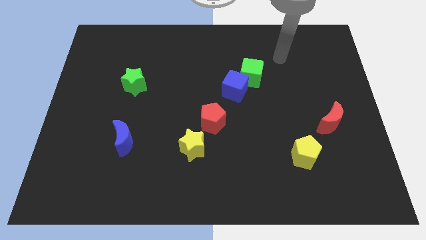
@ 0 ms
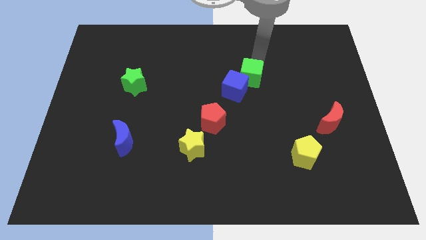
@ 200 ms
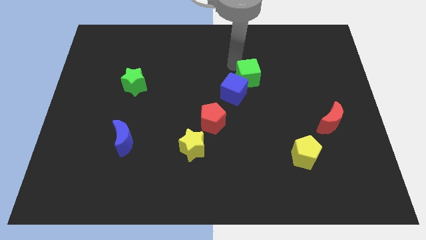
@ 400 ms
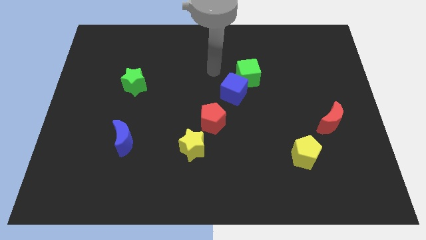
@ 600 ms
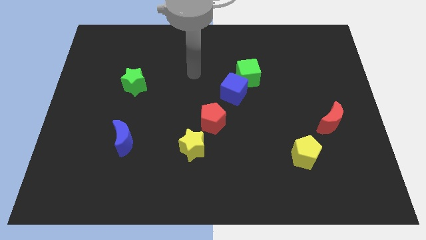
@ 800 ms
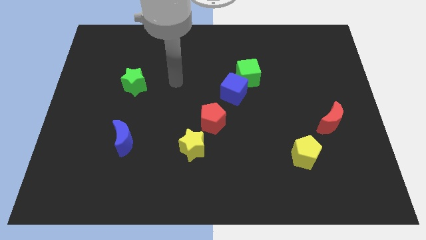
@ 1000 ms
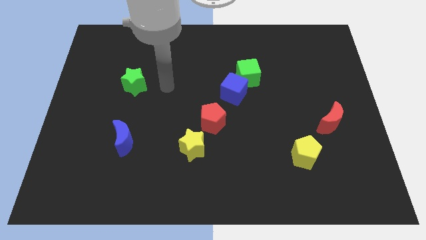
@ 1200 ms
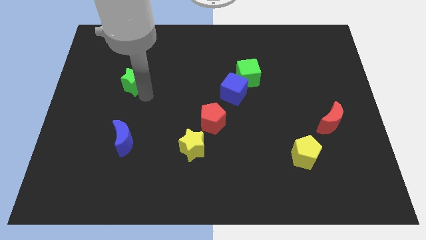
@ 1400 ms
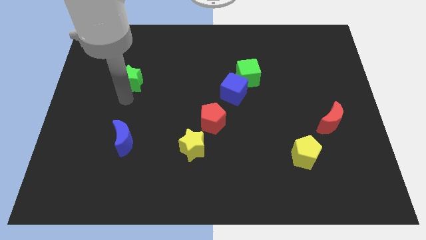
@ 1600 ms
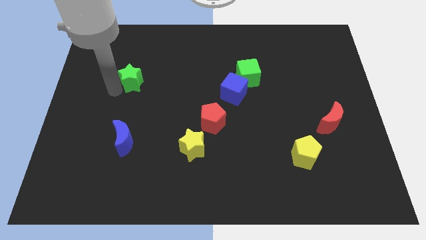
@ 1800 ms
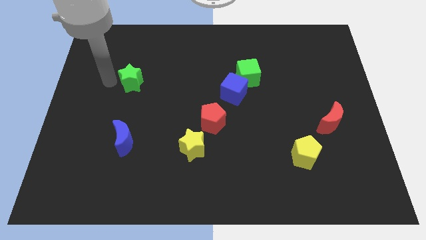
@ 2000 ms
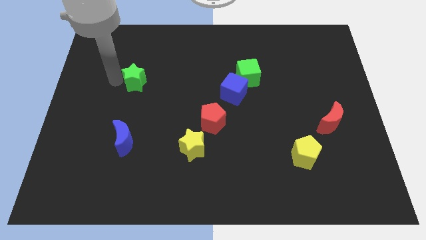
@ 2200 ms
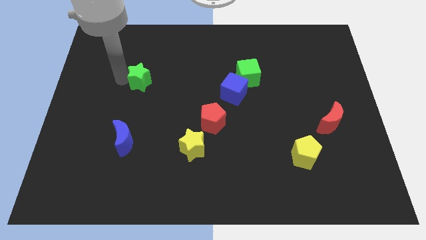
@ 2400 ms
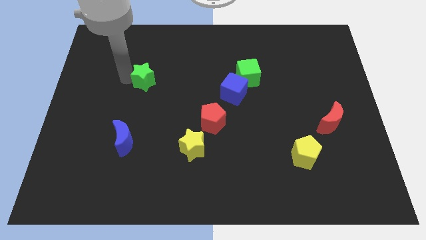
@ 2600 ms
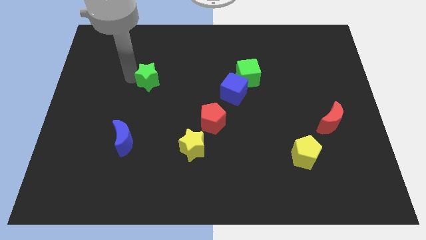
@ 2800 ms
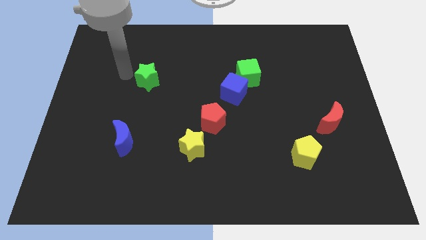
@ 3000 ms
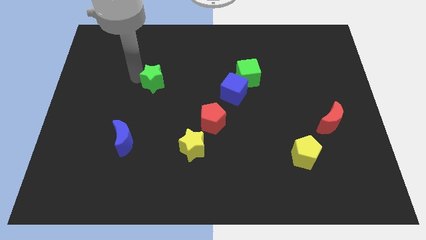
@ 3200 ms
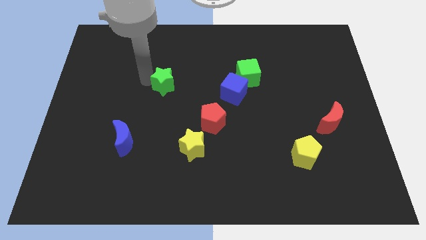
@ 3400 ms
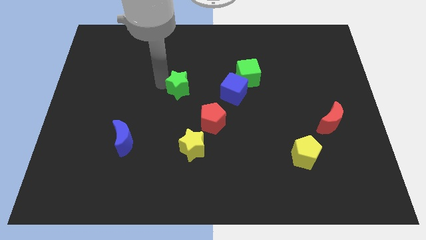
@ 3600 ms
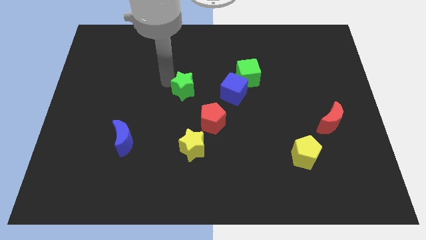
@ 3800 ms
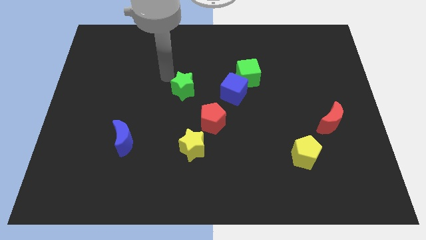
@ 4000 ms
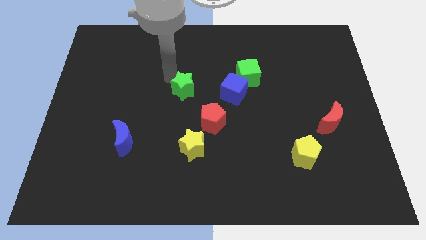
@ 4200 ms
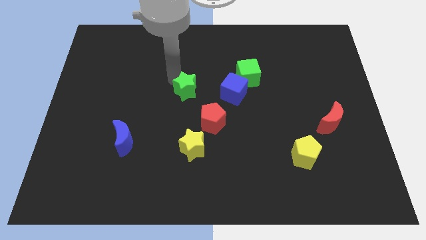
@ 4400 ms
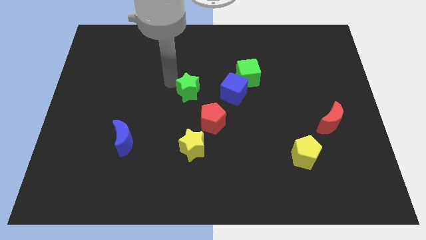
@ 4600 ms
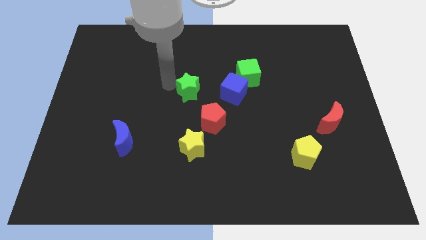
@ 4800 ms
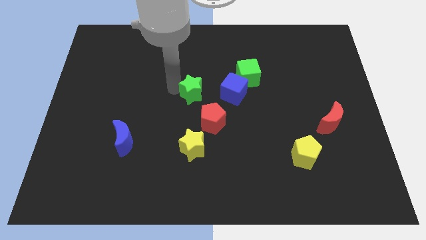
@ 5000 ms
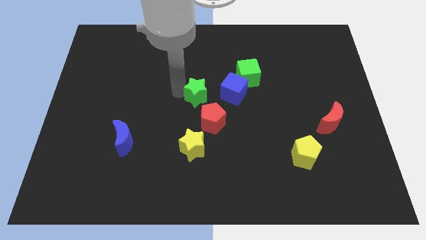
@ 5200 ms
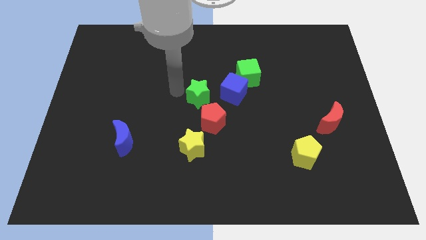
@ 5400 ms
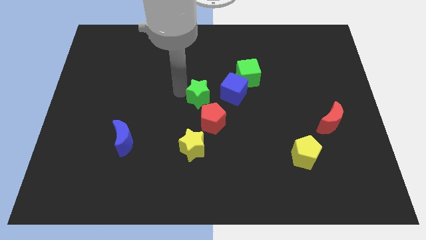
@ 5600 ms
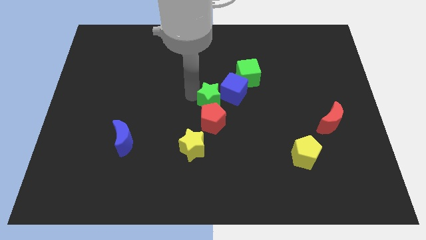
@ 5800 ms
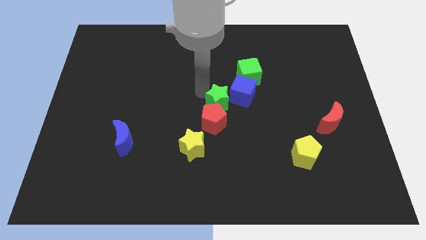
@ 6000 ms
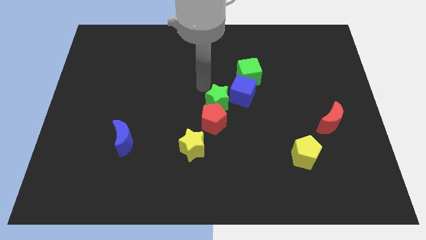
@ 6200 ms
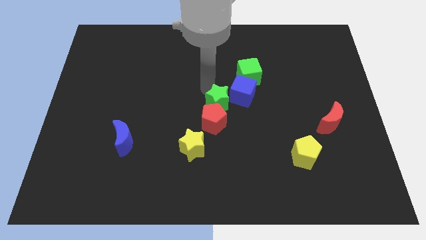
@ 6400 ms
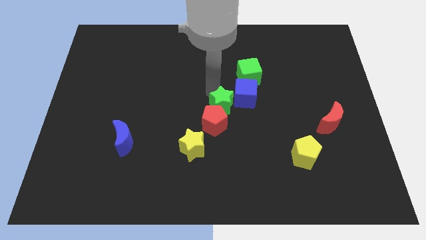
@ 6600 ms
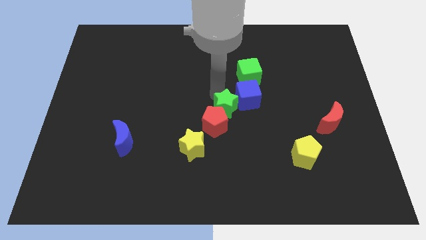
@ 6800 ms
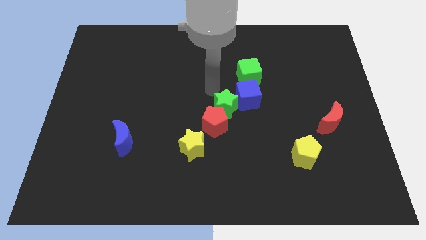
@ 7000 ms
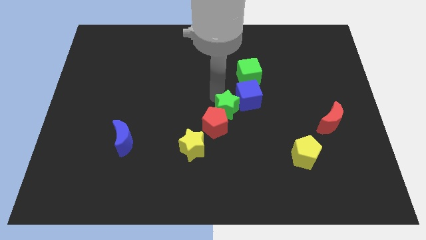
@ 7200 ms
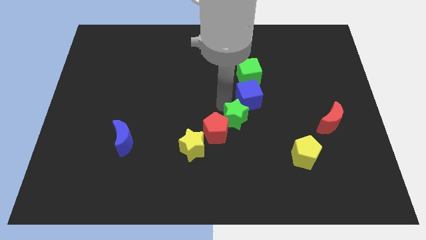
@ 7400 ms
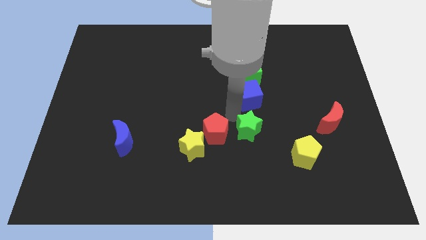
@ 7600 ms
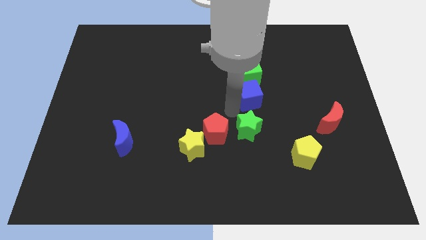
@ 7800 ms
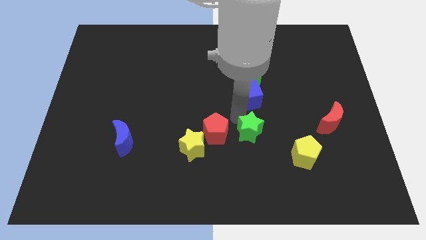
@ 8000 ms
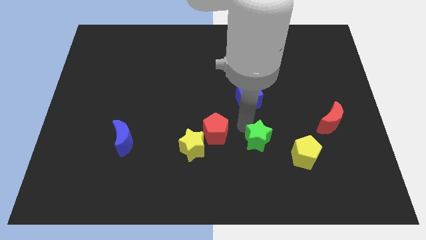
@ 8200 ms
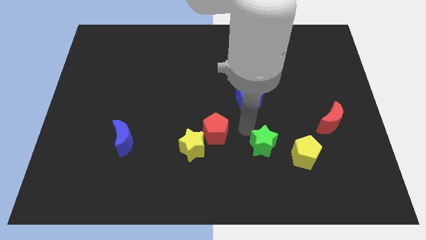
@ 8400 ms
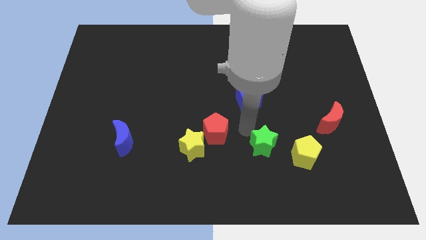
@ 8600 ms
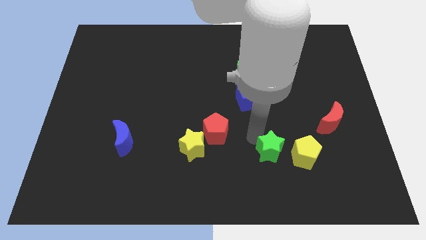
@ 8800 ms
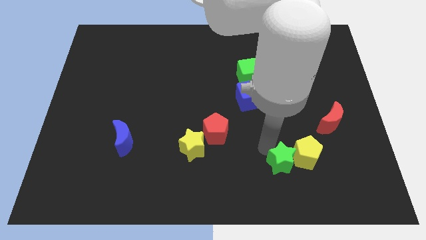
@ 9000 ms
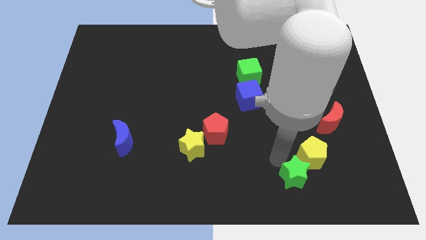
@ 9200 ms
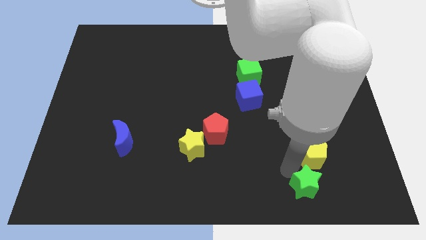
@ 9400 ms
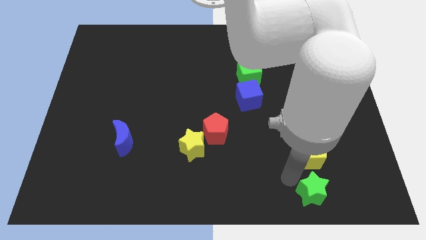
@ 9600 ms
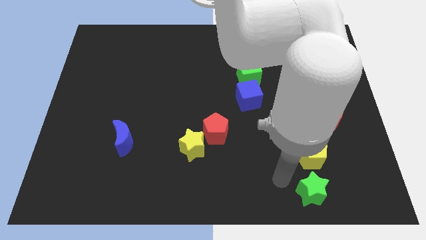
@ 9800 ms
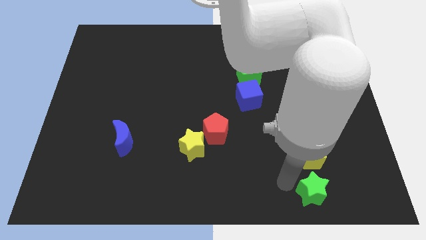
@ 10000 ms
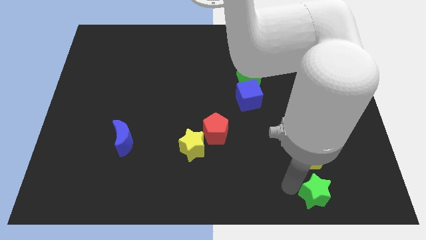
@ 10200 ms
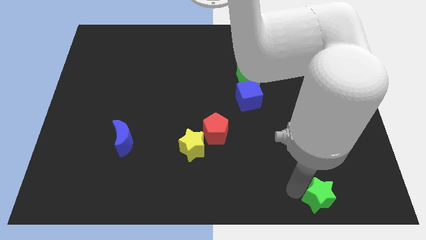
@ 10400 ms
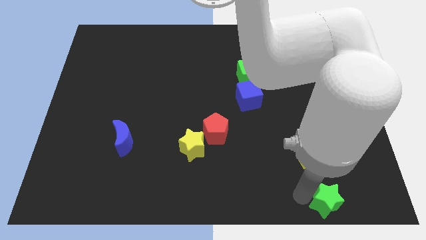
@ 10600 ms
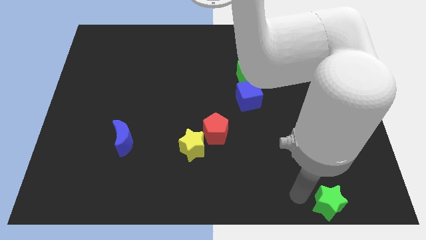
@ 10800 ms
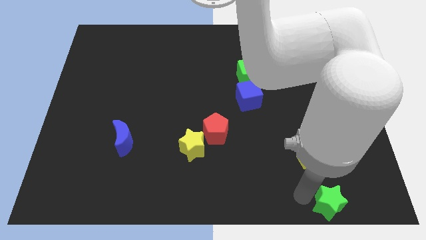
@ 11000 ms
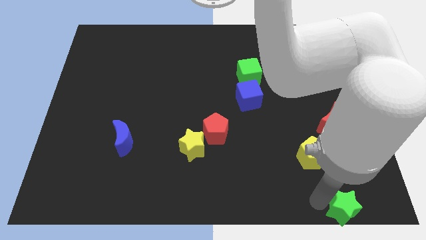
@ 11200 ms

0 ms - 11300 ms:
push the green star to the bottom right

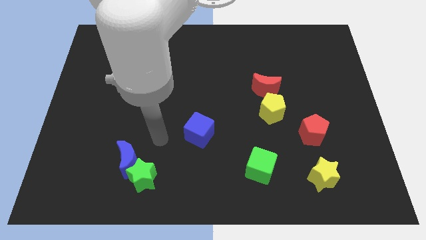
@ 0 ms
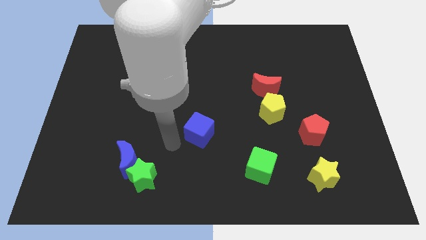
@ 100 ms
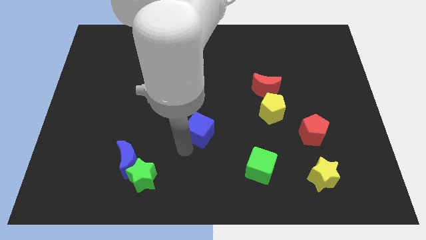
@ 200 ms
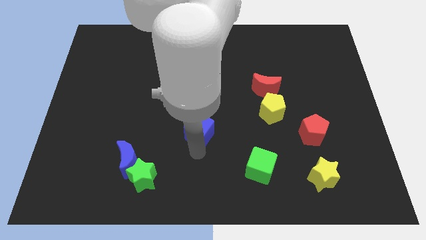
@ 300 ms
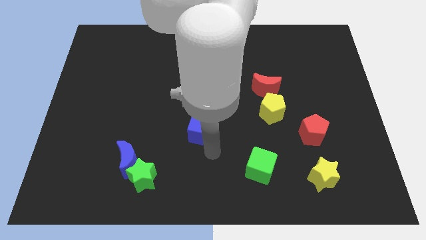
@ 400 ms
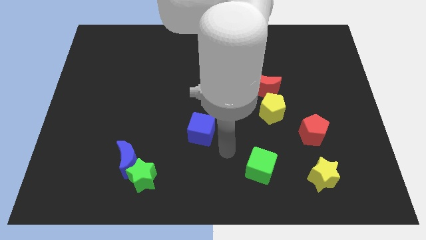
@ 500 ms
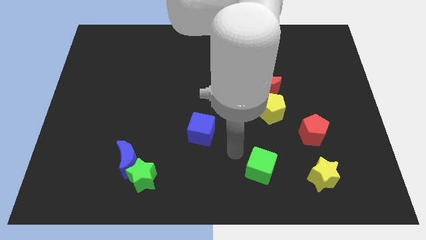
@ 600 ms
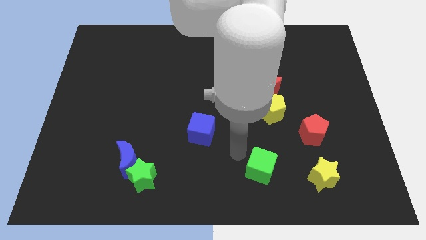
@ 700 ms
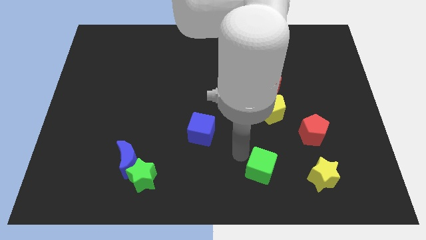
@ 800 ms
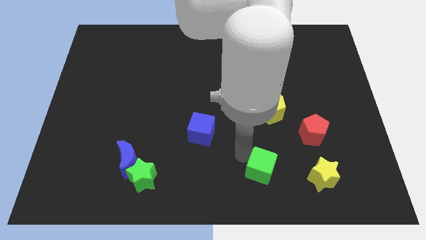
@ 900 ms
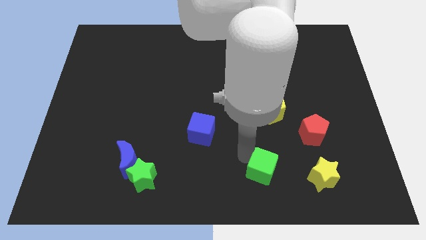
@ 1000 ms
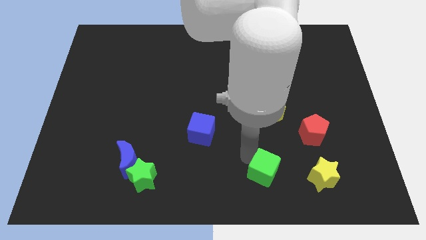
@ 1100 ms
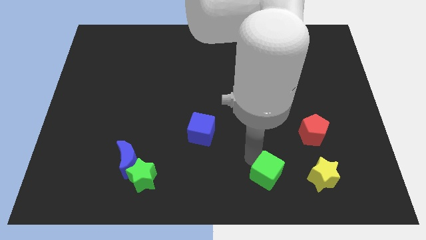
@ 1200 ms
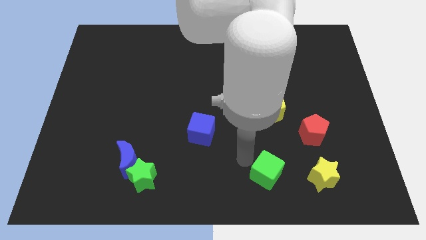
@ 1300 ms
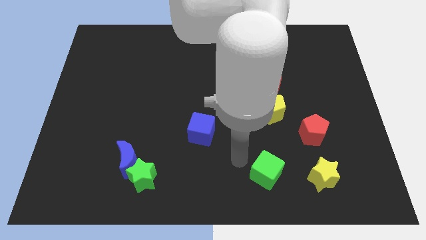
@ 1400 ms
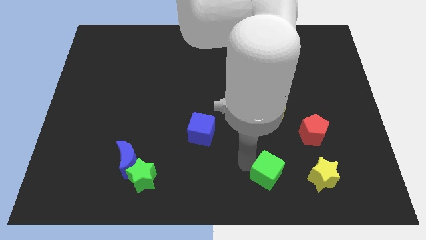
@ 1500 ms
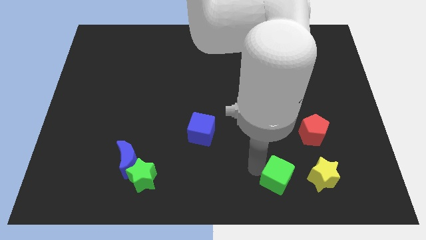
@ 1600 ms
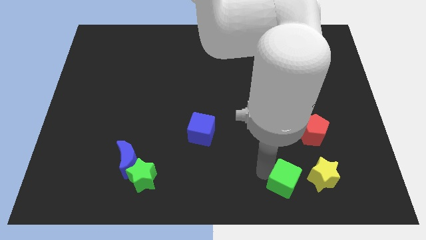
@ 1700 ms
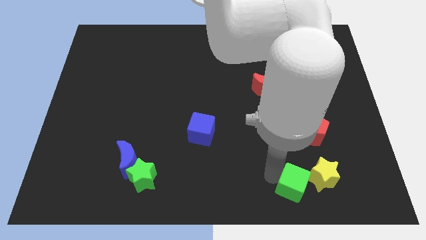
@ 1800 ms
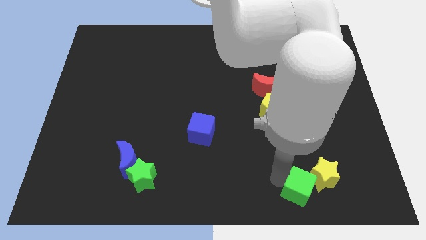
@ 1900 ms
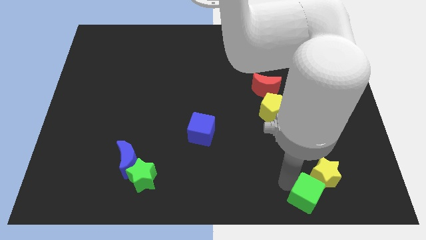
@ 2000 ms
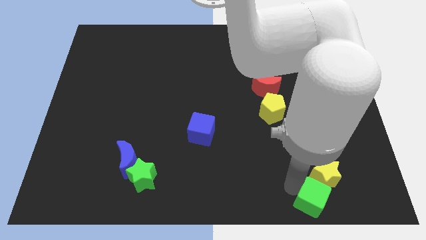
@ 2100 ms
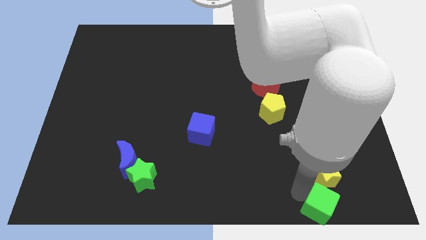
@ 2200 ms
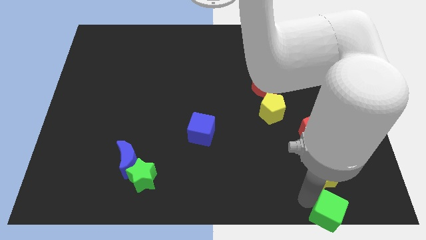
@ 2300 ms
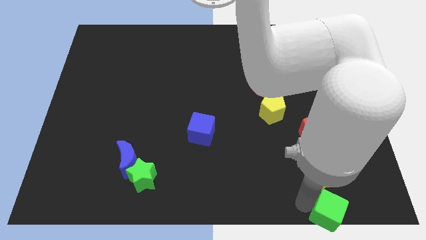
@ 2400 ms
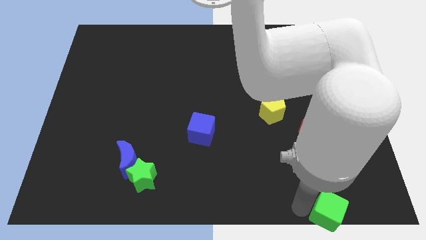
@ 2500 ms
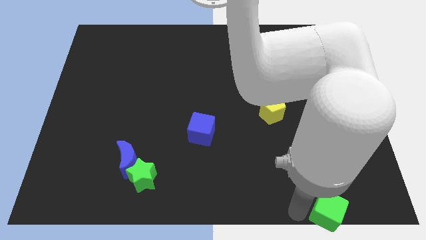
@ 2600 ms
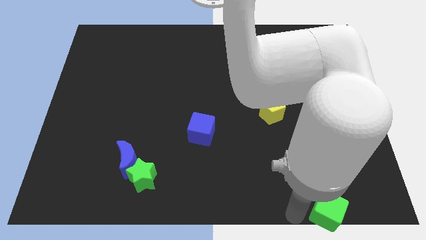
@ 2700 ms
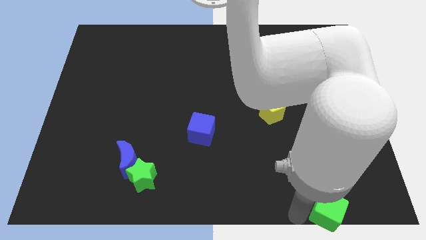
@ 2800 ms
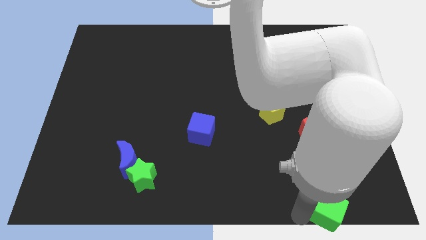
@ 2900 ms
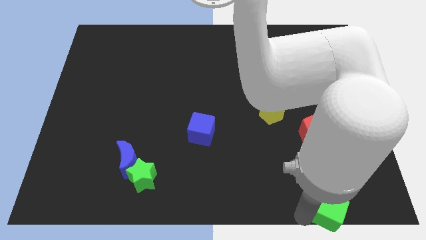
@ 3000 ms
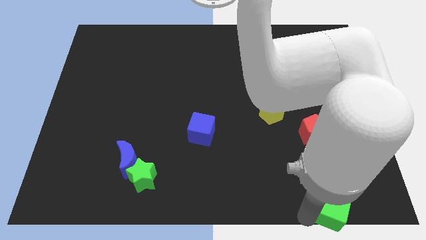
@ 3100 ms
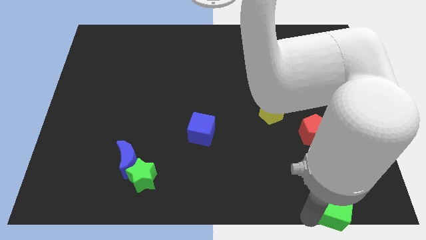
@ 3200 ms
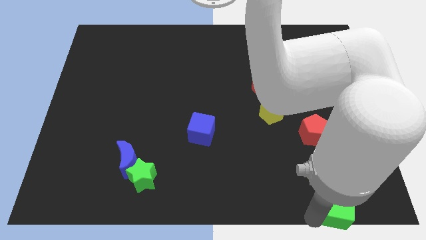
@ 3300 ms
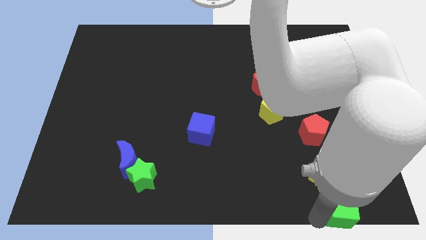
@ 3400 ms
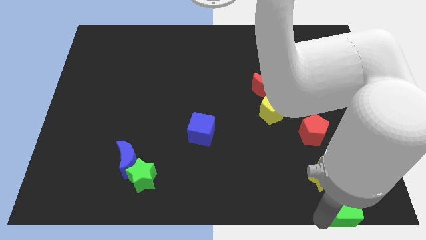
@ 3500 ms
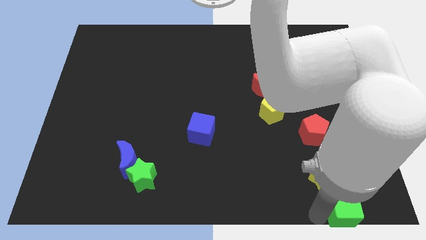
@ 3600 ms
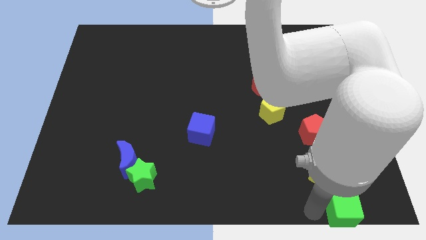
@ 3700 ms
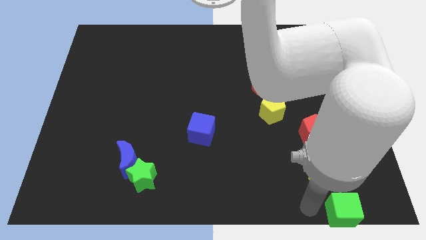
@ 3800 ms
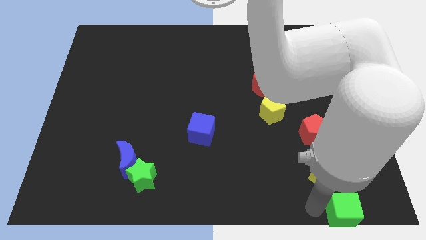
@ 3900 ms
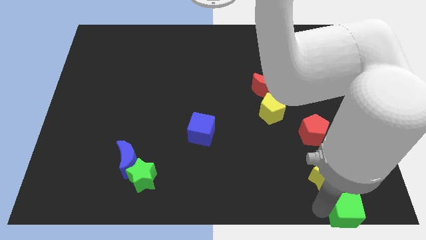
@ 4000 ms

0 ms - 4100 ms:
push the green cube to the bottom right of the board
